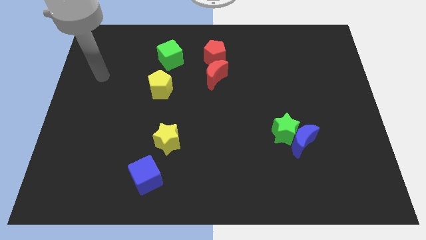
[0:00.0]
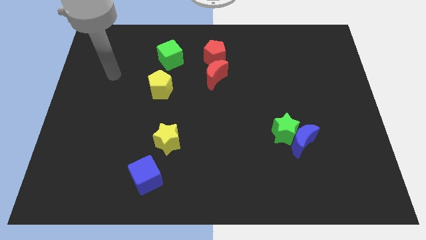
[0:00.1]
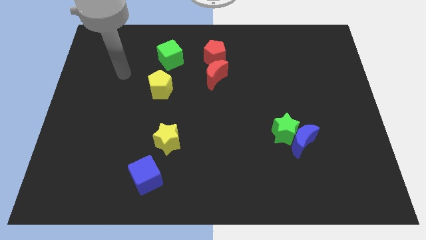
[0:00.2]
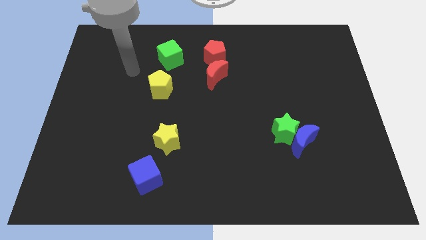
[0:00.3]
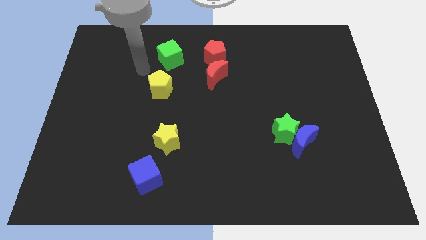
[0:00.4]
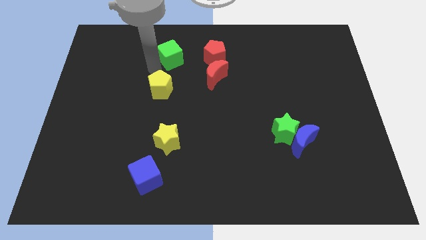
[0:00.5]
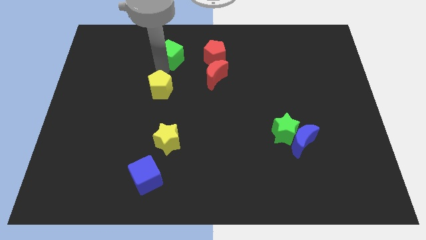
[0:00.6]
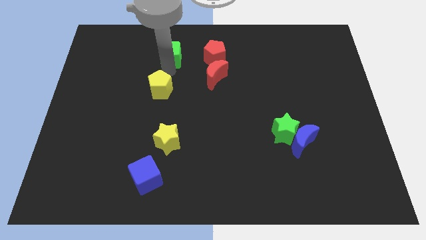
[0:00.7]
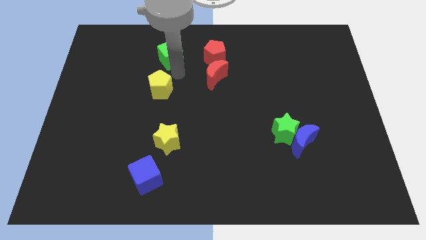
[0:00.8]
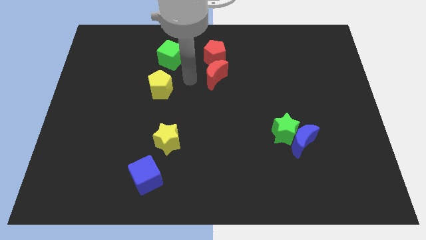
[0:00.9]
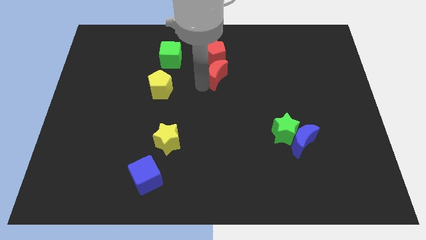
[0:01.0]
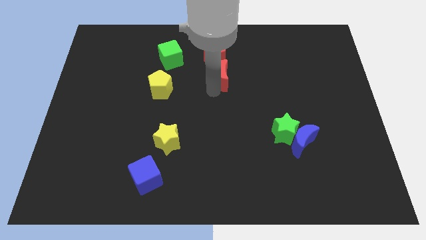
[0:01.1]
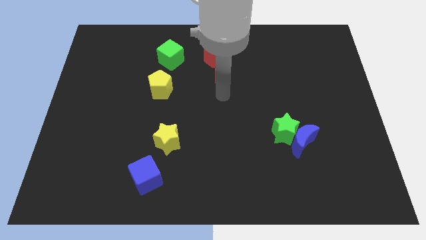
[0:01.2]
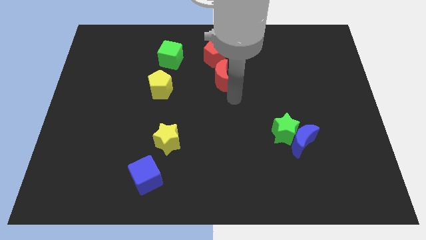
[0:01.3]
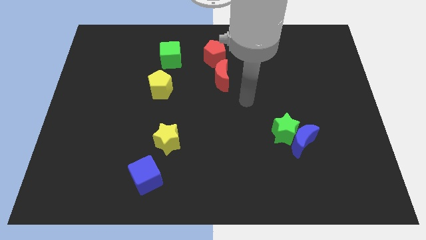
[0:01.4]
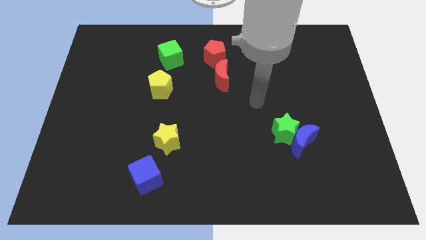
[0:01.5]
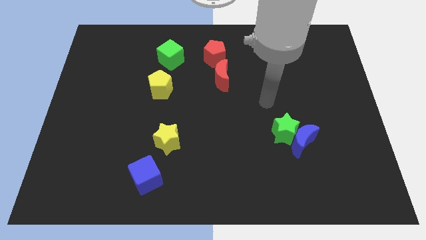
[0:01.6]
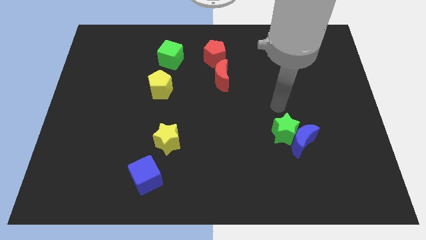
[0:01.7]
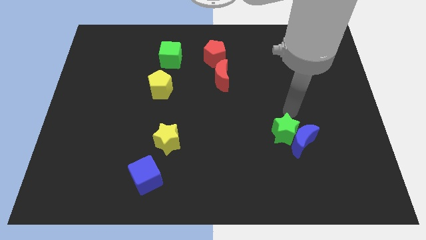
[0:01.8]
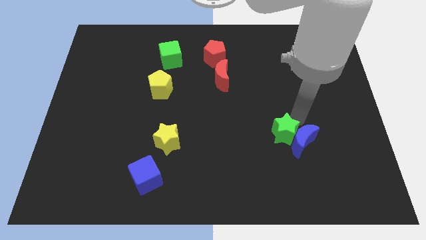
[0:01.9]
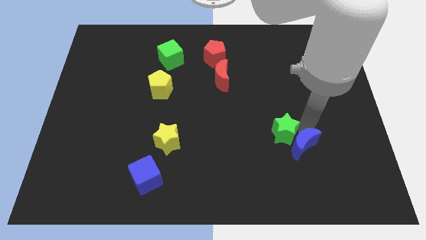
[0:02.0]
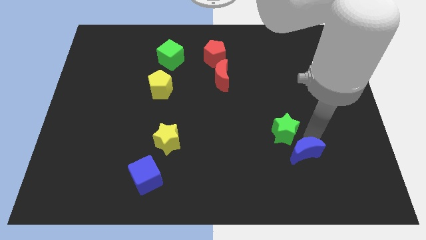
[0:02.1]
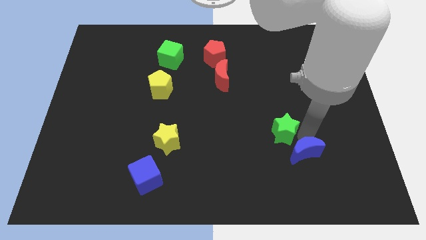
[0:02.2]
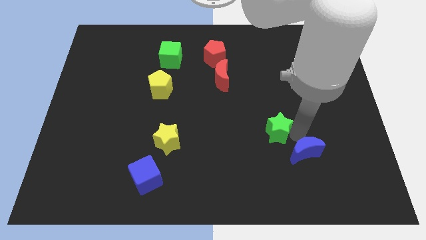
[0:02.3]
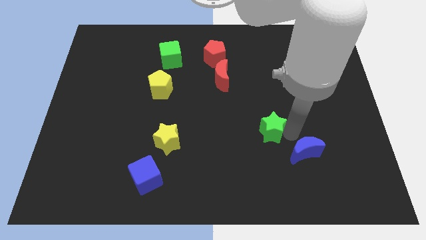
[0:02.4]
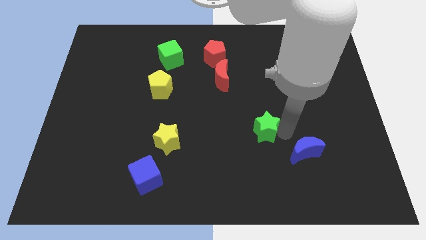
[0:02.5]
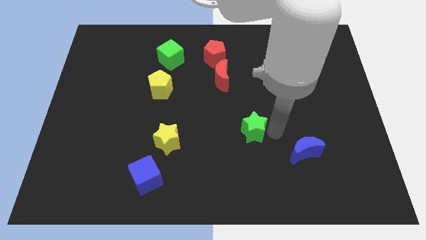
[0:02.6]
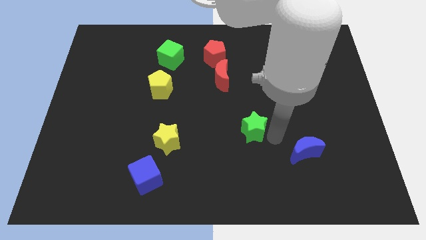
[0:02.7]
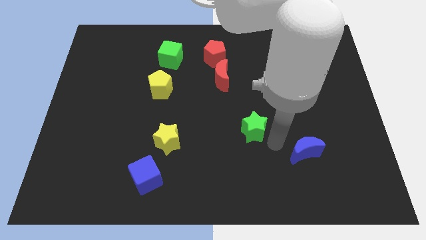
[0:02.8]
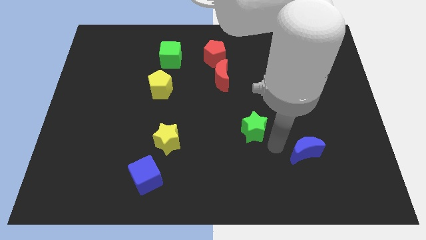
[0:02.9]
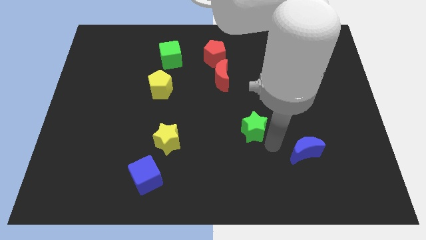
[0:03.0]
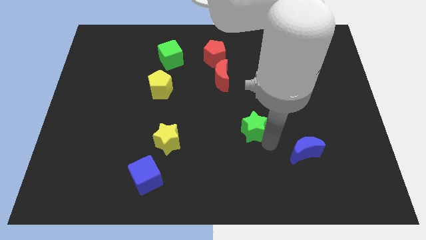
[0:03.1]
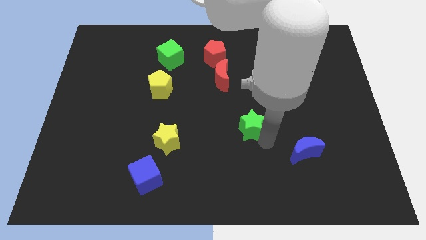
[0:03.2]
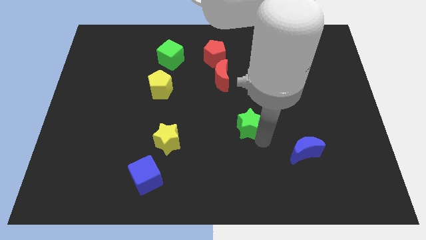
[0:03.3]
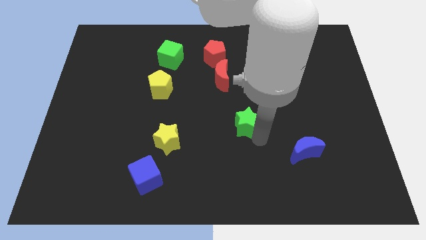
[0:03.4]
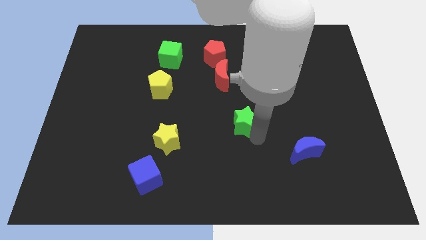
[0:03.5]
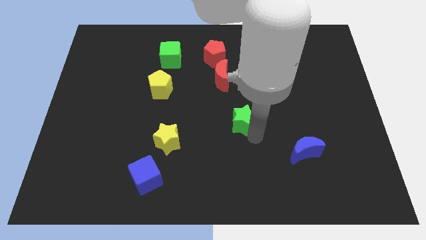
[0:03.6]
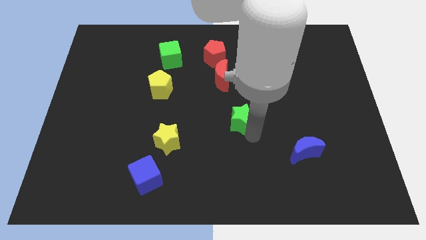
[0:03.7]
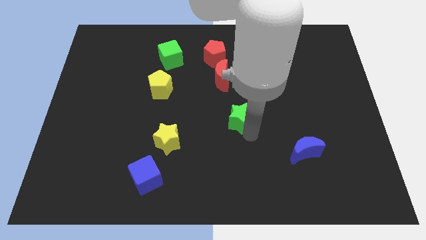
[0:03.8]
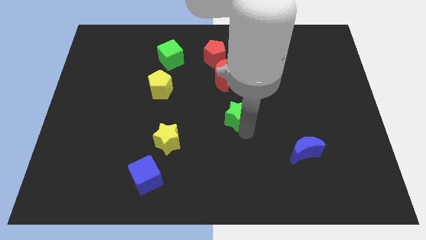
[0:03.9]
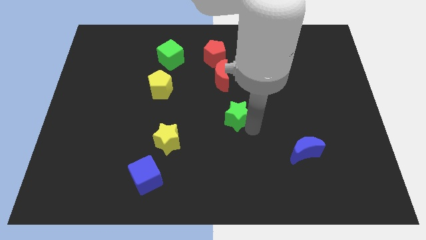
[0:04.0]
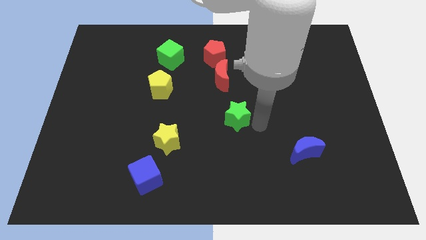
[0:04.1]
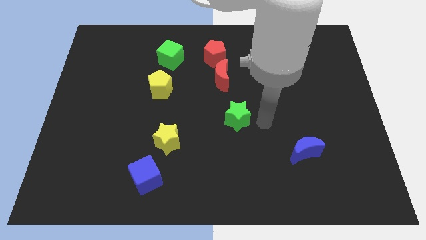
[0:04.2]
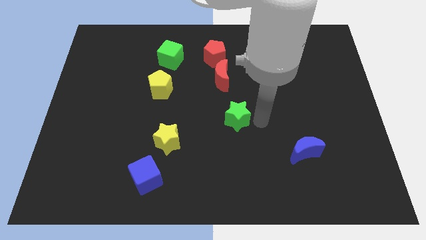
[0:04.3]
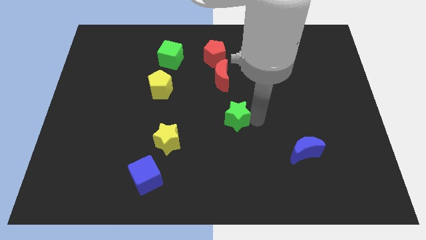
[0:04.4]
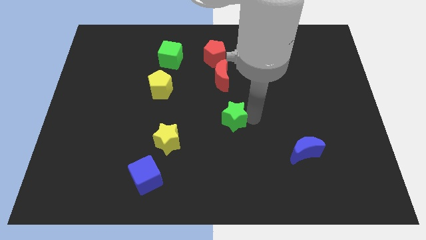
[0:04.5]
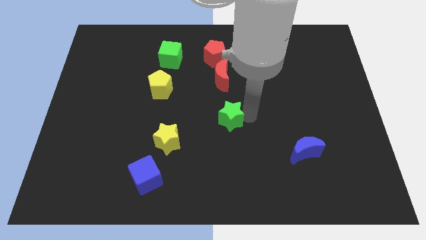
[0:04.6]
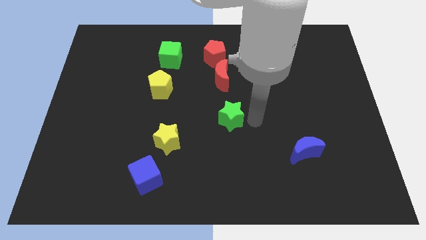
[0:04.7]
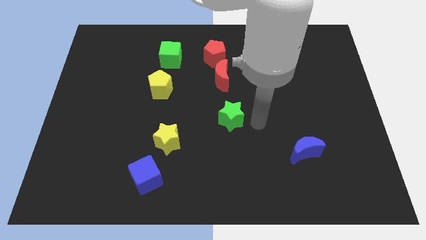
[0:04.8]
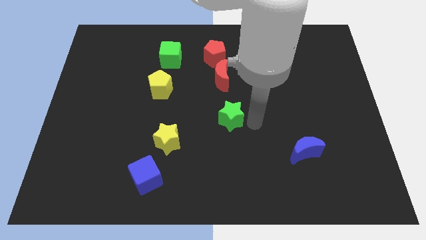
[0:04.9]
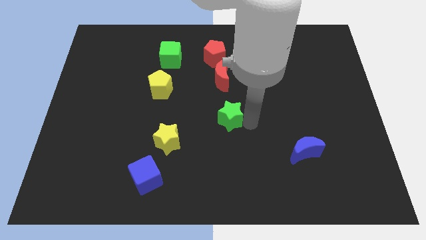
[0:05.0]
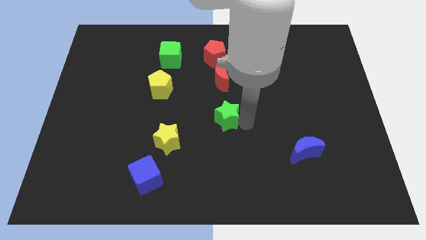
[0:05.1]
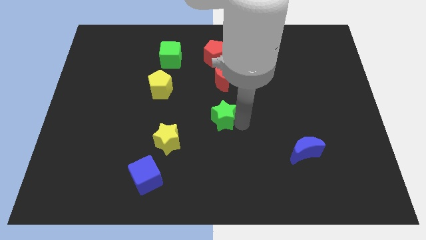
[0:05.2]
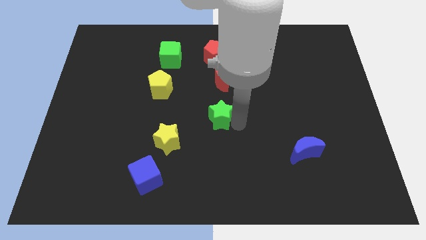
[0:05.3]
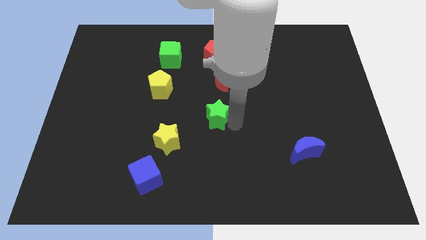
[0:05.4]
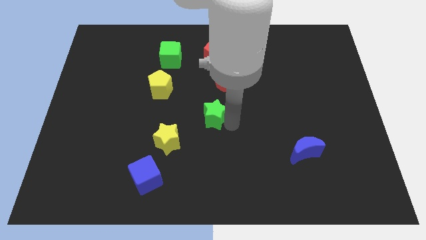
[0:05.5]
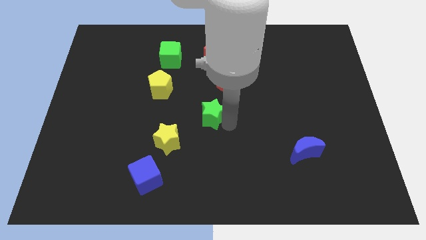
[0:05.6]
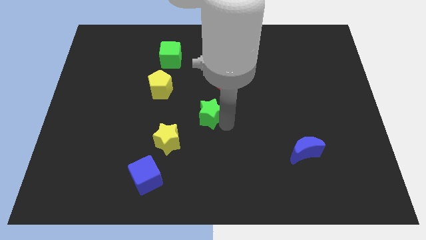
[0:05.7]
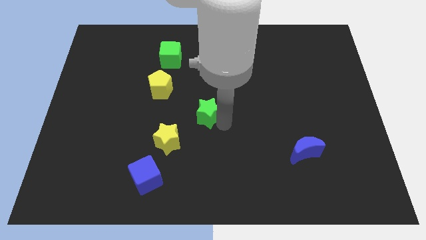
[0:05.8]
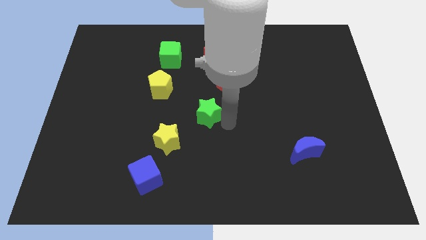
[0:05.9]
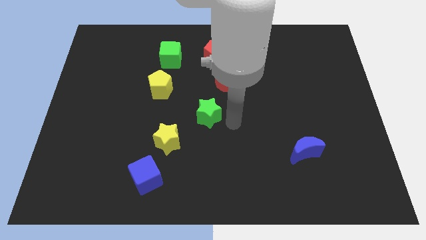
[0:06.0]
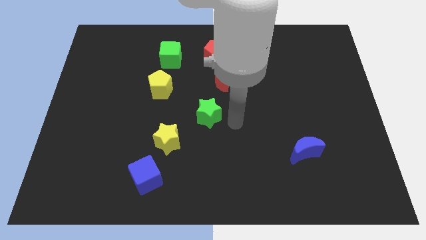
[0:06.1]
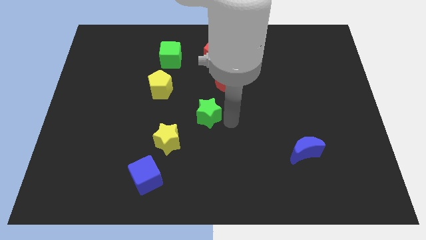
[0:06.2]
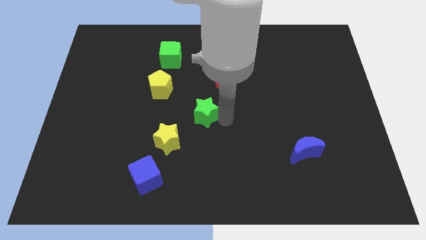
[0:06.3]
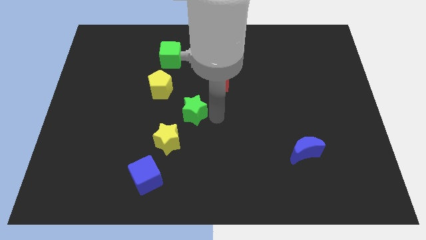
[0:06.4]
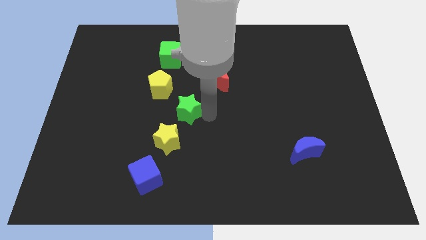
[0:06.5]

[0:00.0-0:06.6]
put the green star to the top of the yellow star

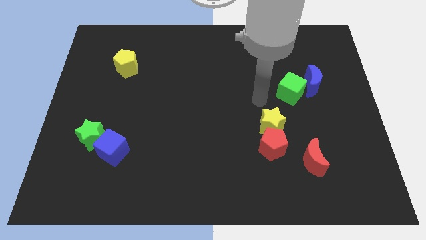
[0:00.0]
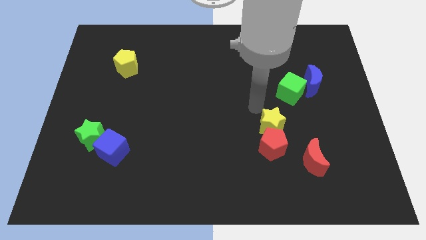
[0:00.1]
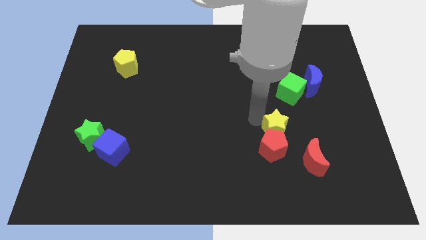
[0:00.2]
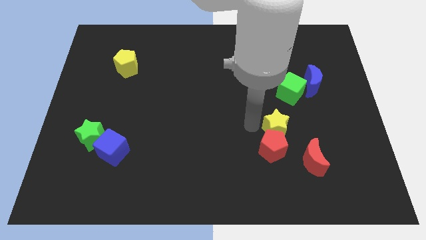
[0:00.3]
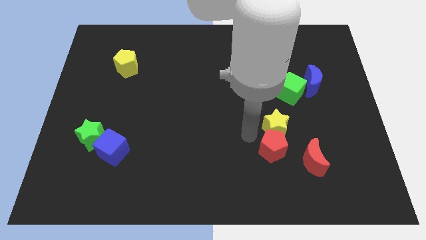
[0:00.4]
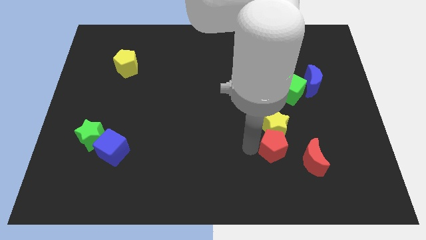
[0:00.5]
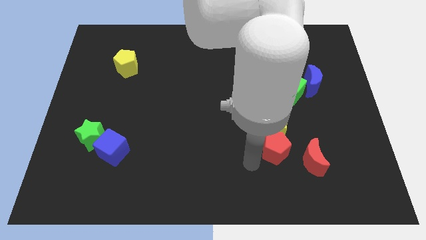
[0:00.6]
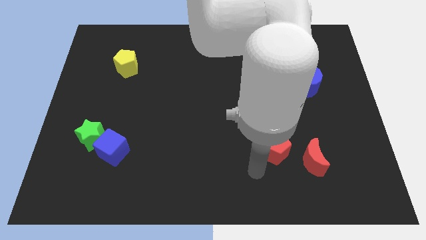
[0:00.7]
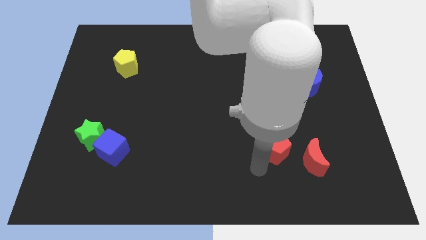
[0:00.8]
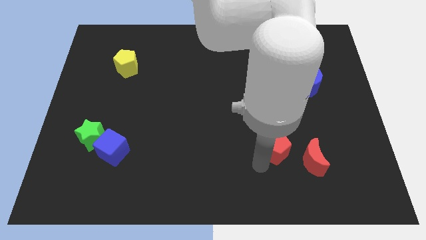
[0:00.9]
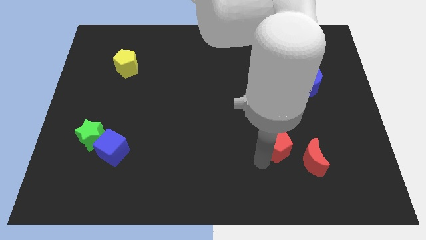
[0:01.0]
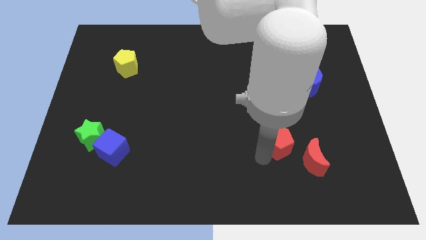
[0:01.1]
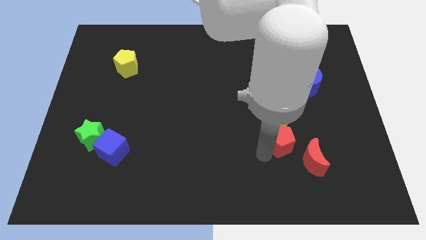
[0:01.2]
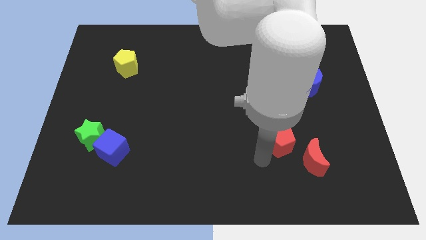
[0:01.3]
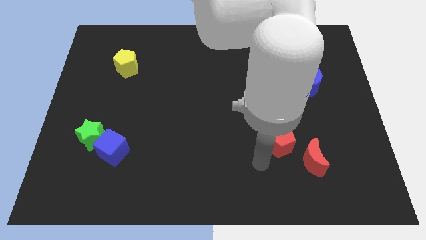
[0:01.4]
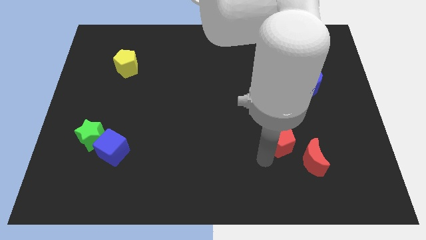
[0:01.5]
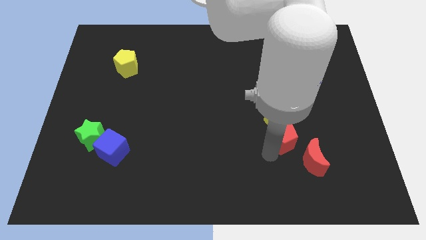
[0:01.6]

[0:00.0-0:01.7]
put the red pentagon to the bottom side of the green cube
